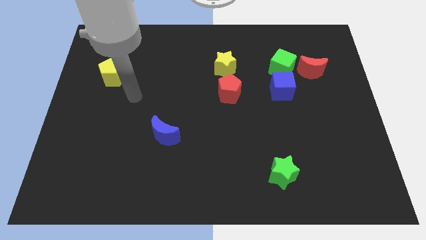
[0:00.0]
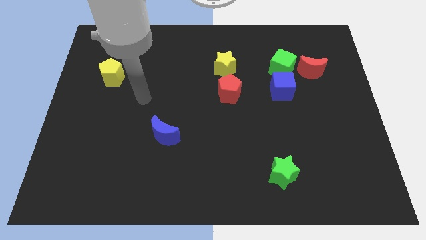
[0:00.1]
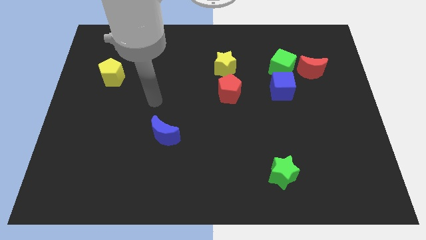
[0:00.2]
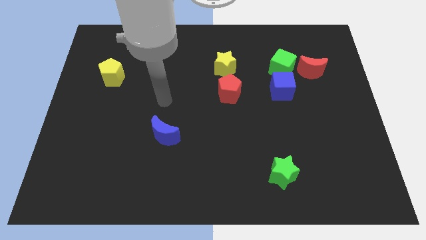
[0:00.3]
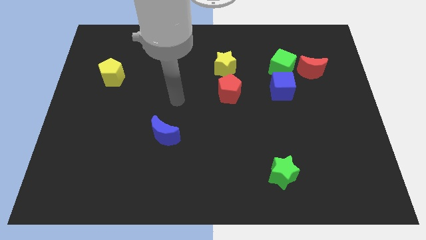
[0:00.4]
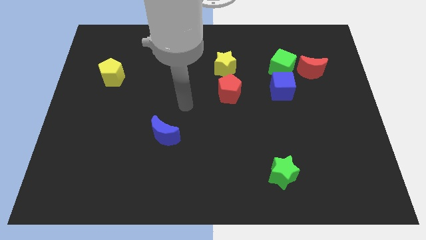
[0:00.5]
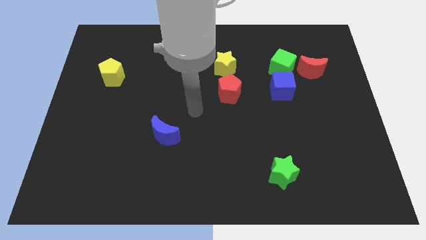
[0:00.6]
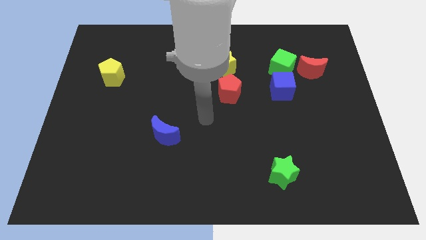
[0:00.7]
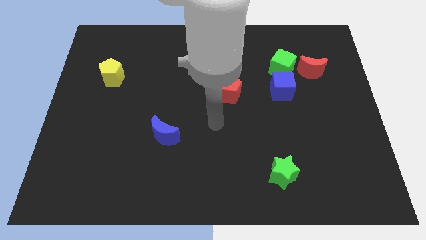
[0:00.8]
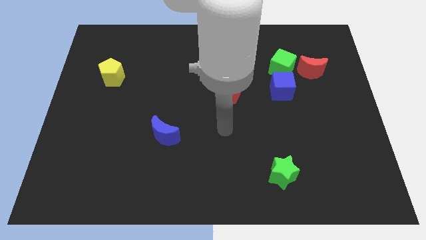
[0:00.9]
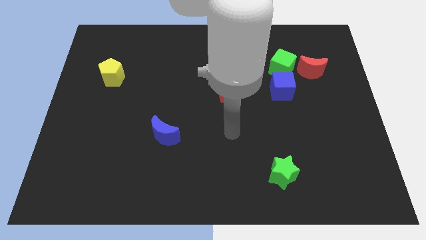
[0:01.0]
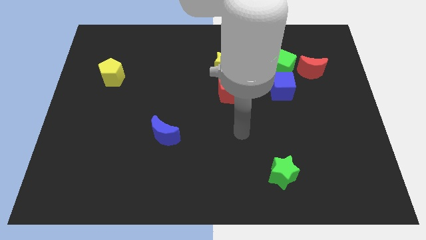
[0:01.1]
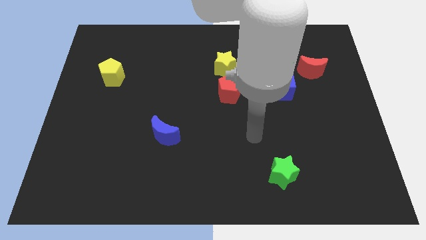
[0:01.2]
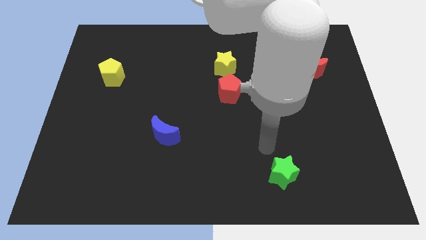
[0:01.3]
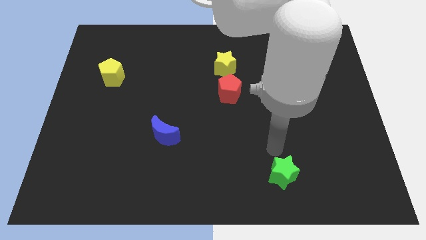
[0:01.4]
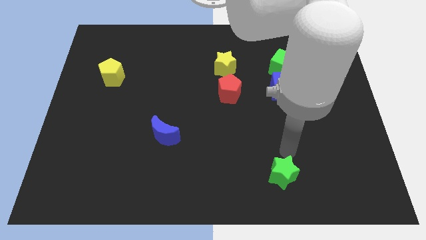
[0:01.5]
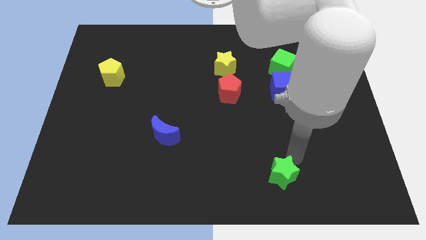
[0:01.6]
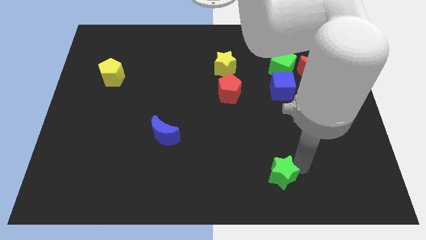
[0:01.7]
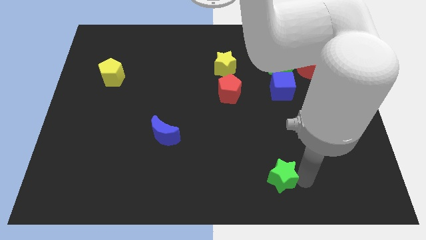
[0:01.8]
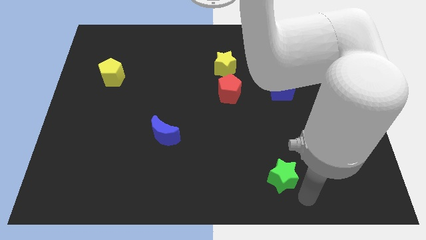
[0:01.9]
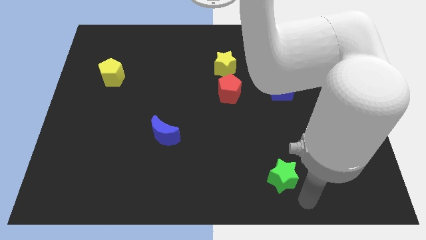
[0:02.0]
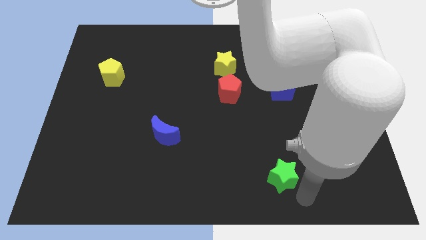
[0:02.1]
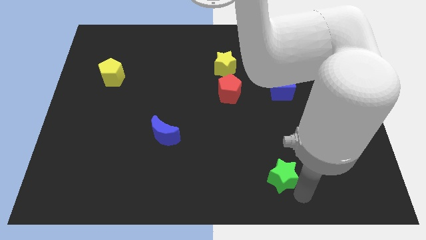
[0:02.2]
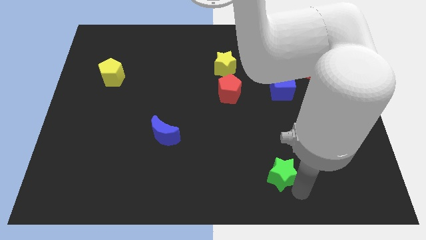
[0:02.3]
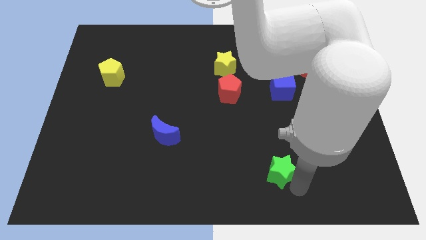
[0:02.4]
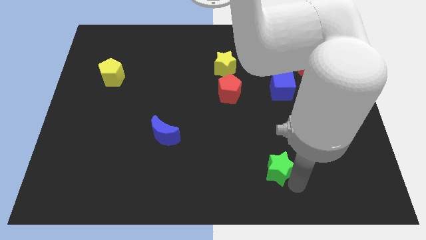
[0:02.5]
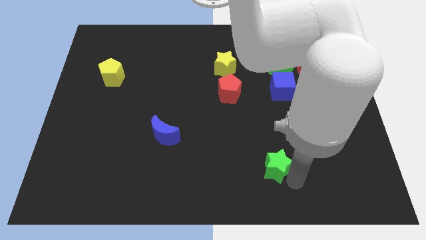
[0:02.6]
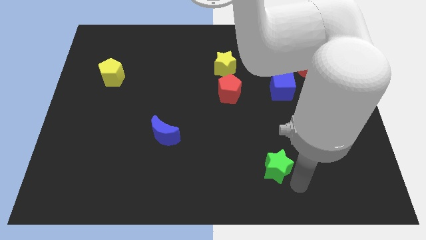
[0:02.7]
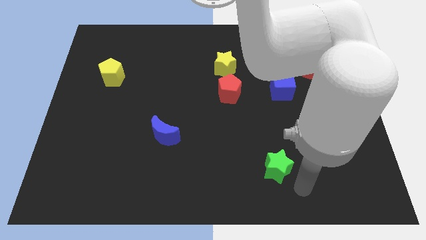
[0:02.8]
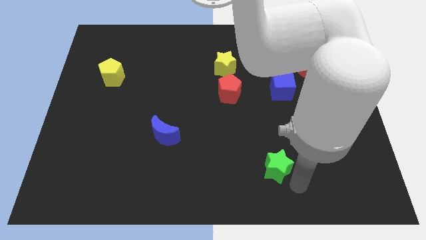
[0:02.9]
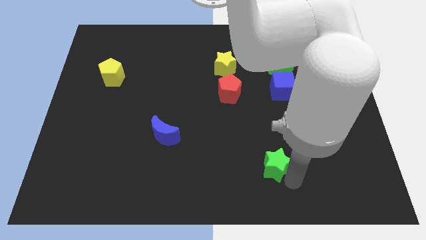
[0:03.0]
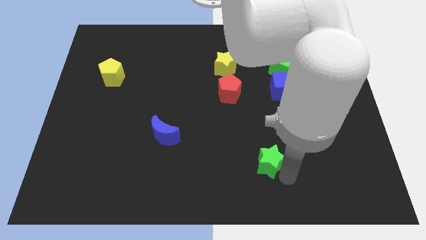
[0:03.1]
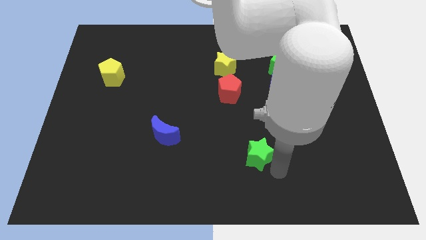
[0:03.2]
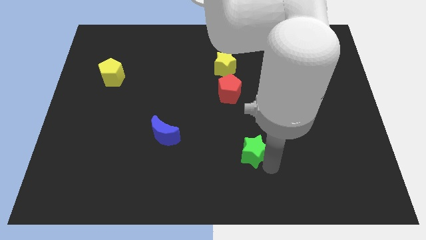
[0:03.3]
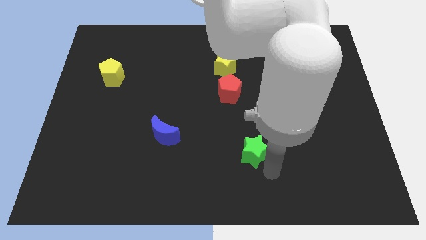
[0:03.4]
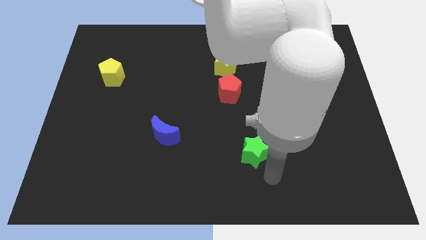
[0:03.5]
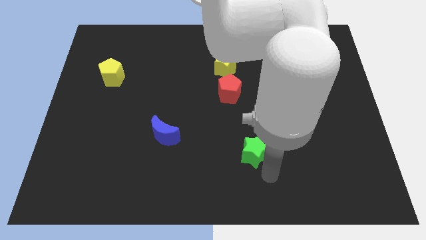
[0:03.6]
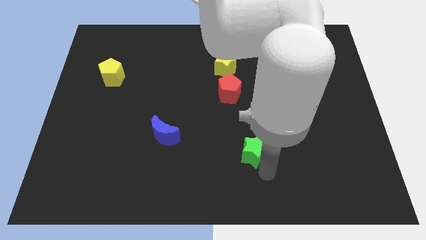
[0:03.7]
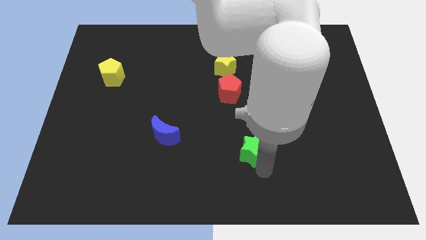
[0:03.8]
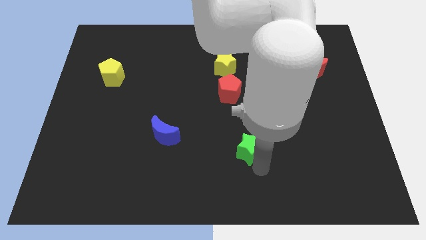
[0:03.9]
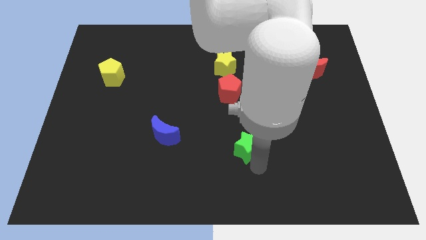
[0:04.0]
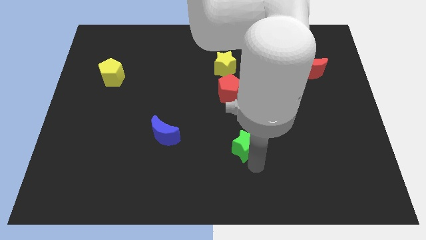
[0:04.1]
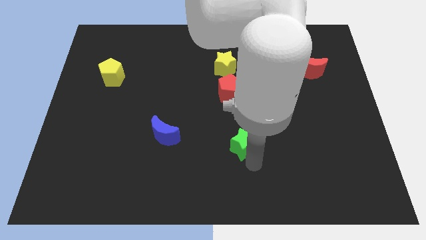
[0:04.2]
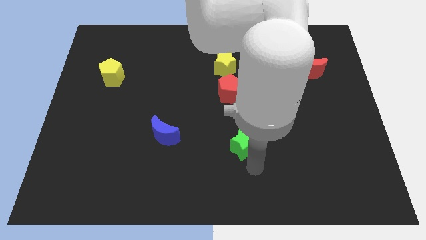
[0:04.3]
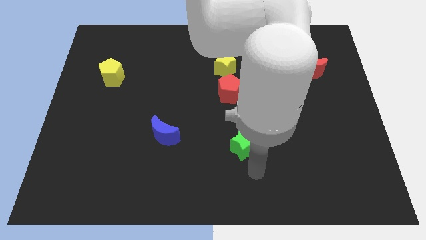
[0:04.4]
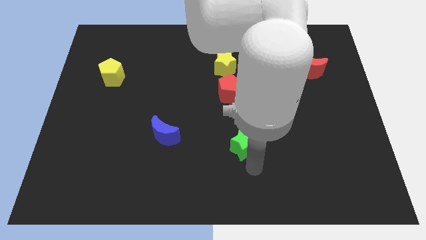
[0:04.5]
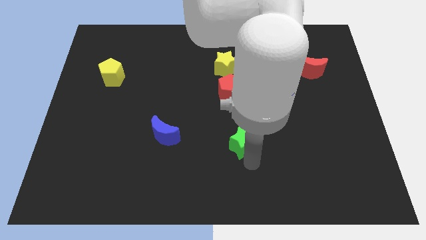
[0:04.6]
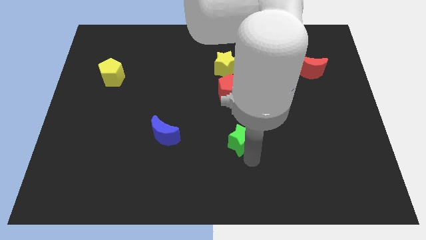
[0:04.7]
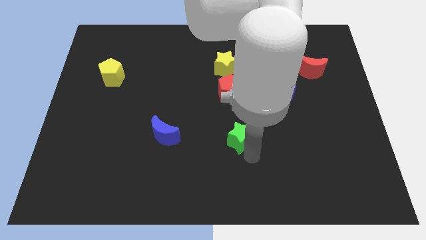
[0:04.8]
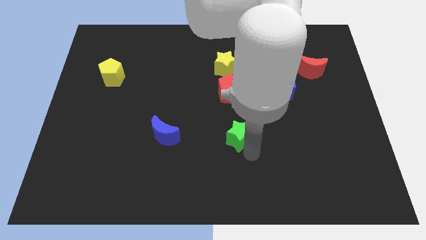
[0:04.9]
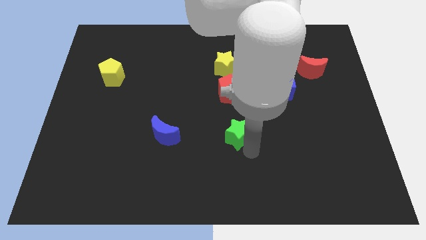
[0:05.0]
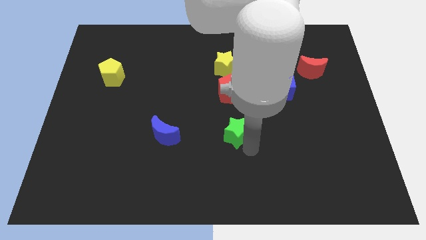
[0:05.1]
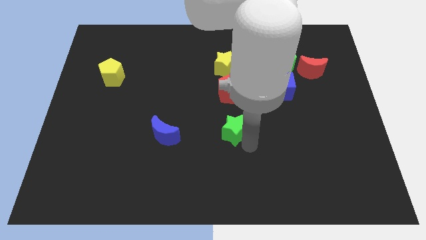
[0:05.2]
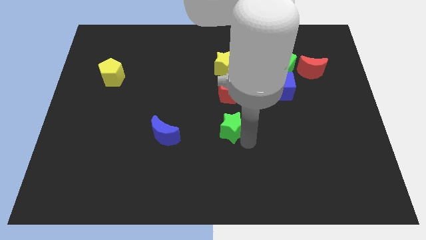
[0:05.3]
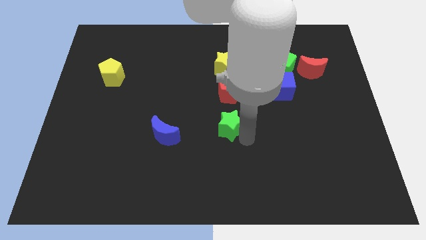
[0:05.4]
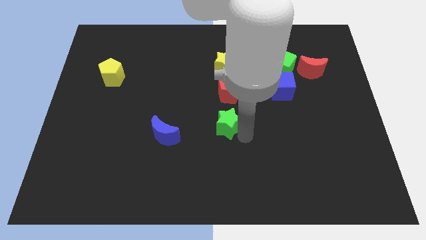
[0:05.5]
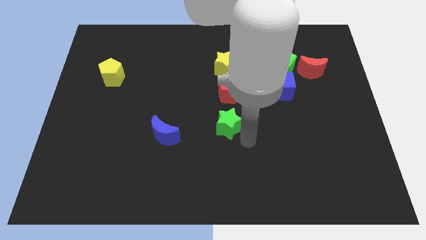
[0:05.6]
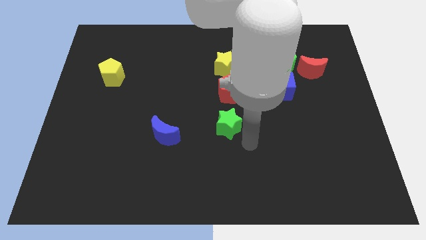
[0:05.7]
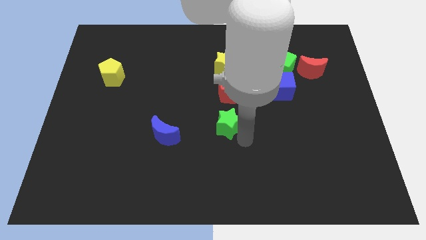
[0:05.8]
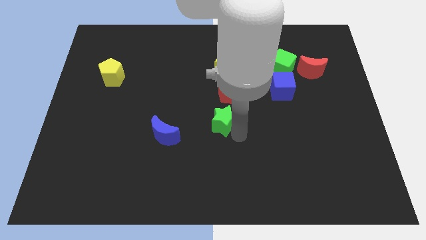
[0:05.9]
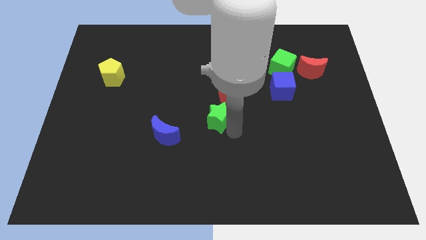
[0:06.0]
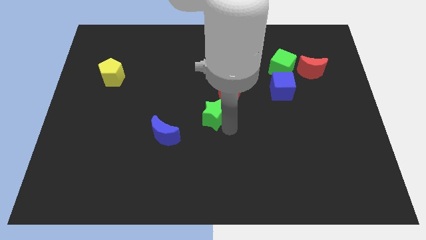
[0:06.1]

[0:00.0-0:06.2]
push the green star diagonally up and to the left

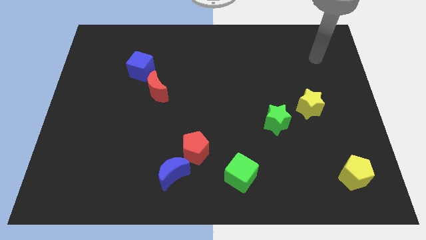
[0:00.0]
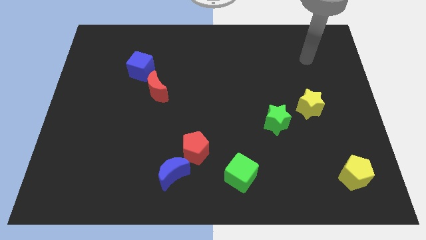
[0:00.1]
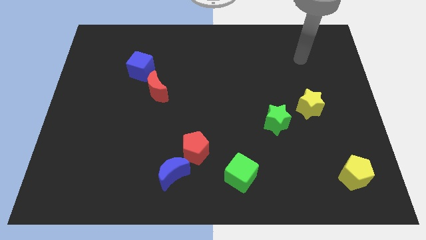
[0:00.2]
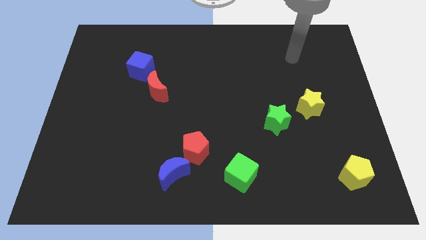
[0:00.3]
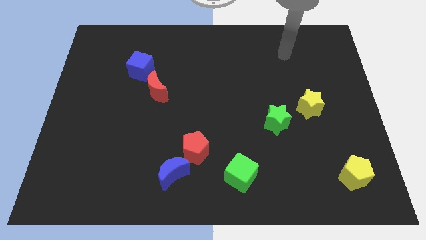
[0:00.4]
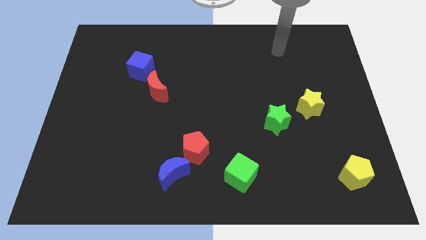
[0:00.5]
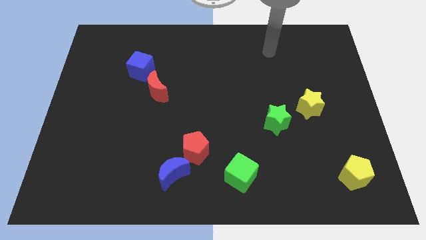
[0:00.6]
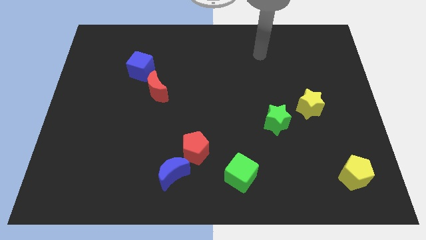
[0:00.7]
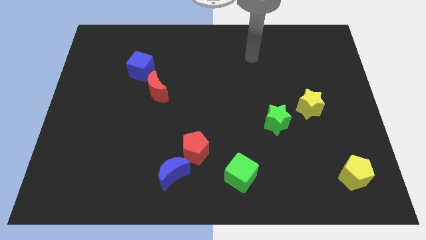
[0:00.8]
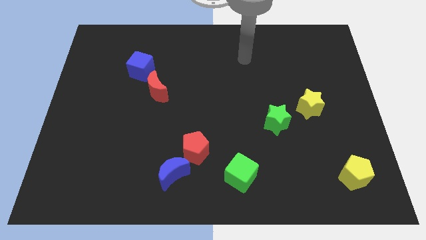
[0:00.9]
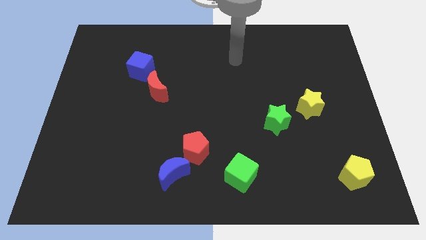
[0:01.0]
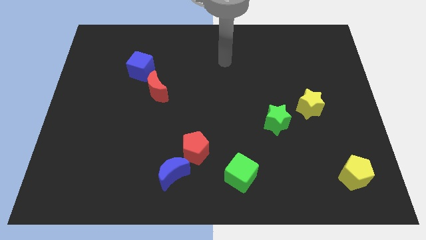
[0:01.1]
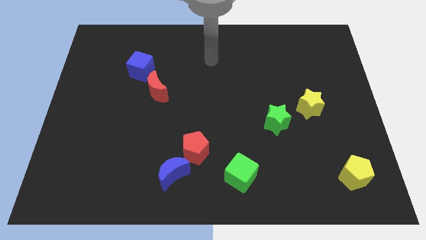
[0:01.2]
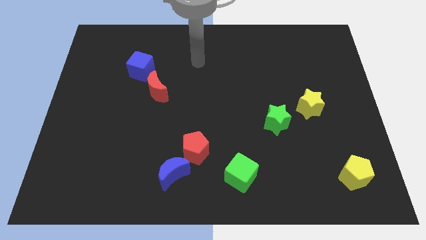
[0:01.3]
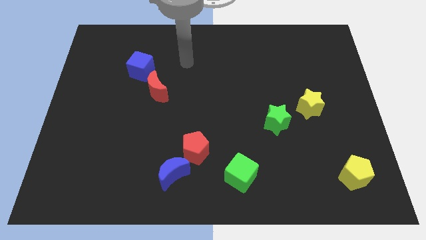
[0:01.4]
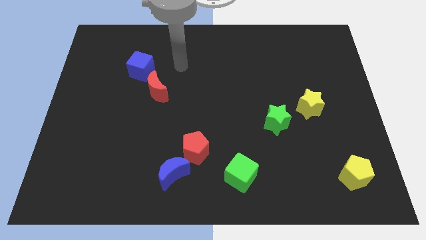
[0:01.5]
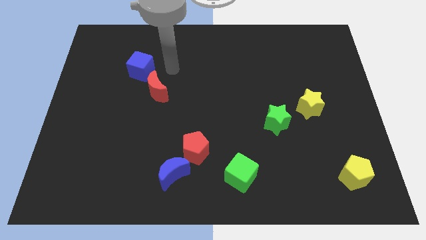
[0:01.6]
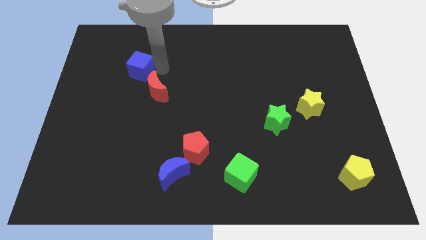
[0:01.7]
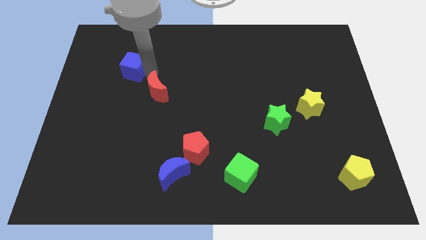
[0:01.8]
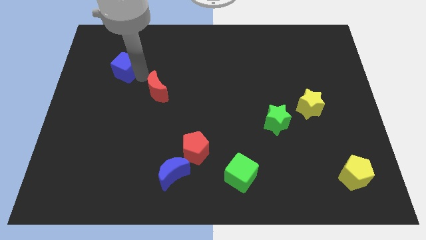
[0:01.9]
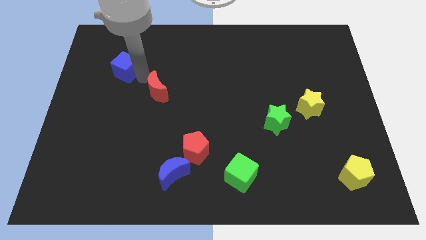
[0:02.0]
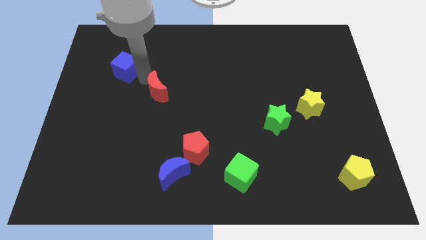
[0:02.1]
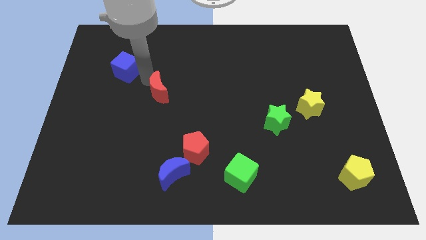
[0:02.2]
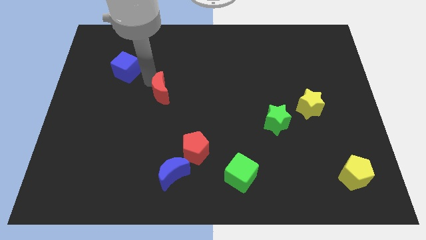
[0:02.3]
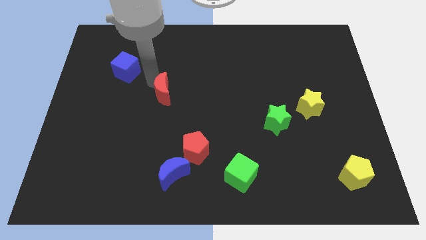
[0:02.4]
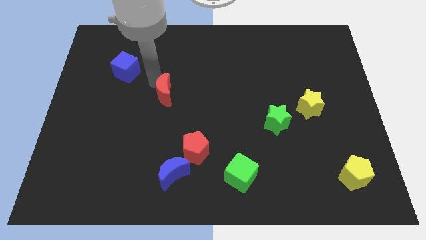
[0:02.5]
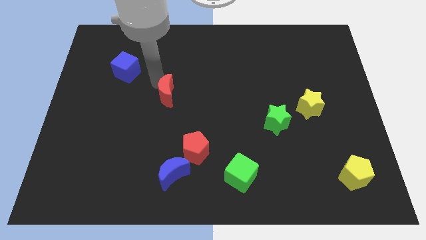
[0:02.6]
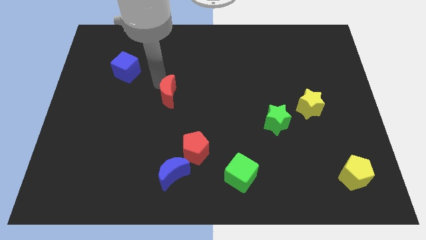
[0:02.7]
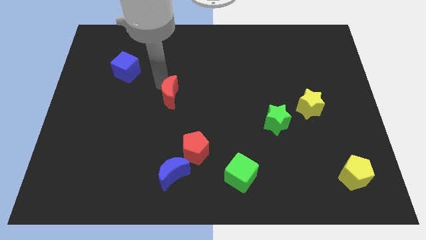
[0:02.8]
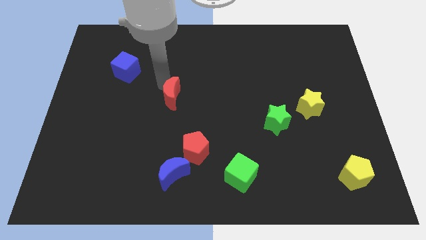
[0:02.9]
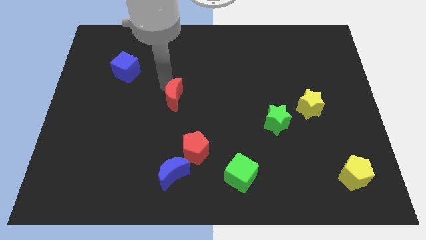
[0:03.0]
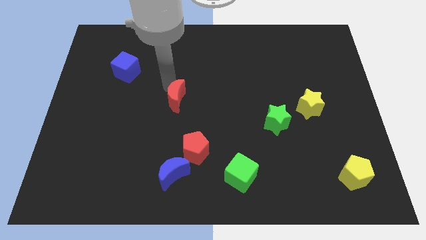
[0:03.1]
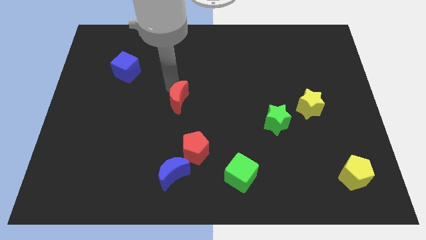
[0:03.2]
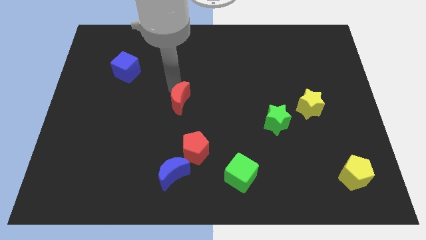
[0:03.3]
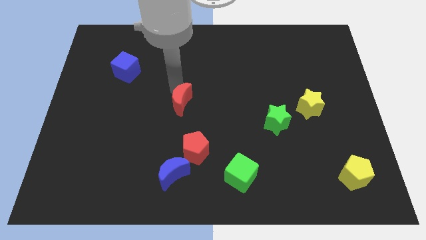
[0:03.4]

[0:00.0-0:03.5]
slide the red moon down and to the right a little bit
